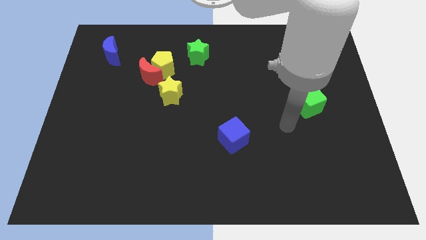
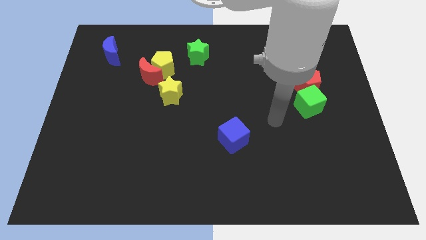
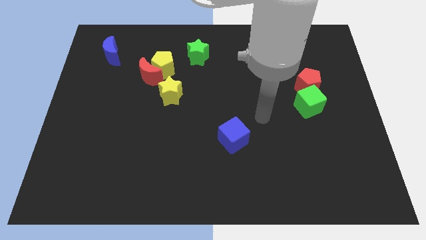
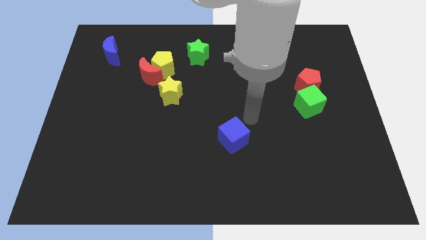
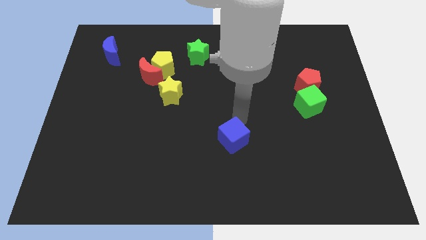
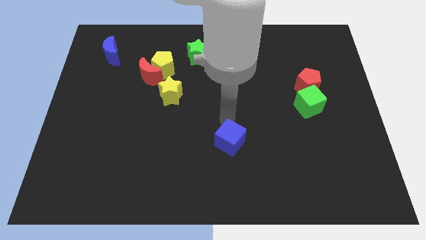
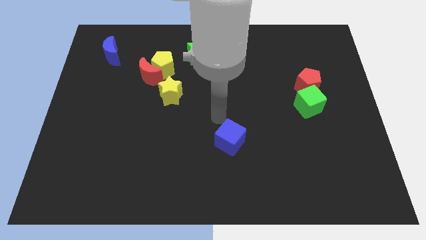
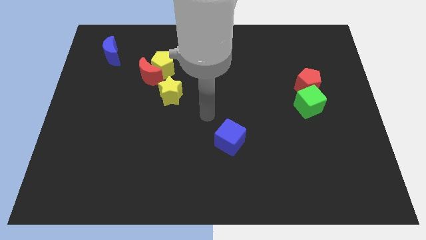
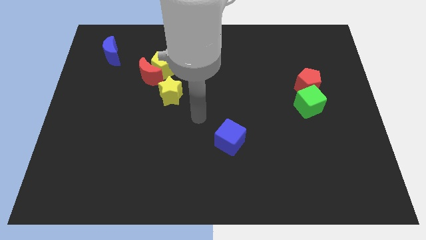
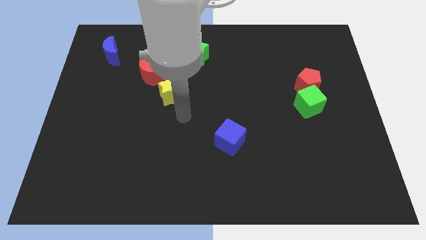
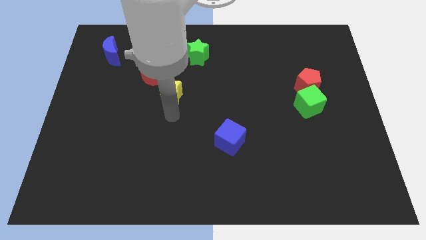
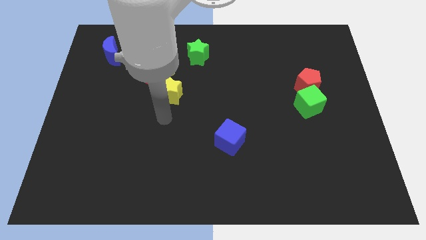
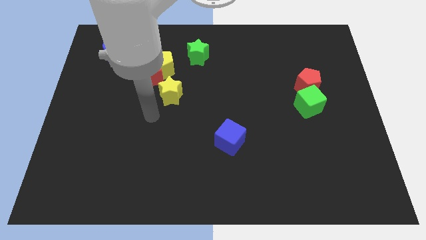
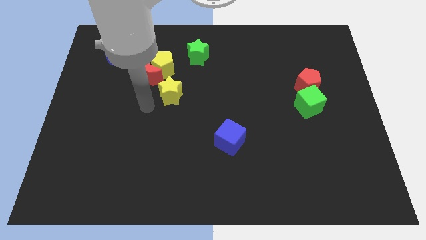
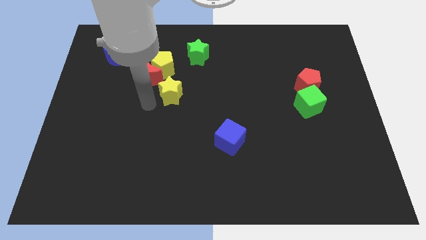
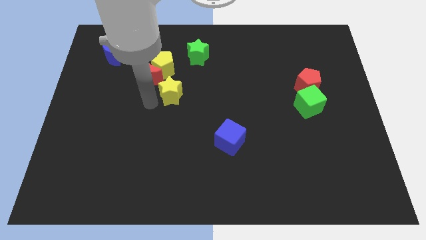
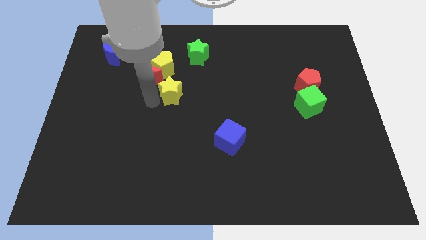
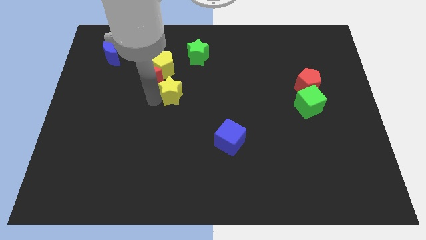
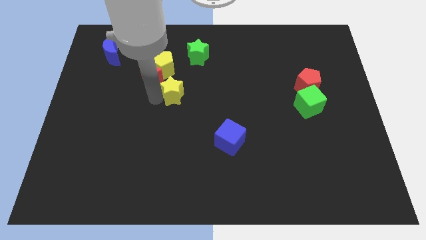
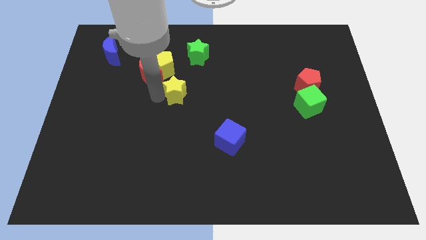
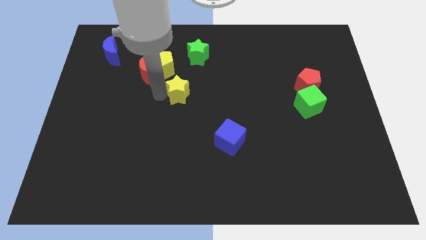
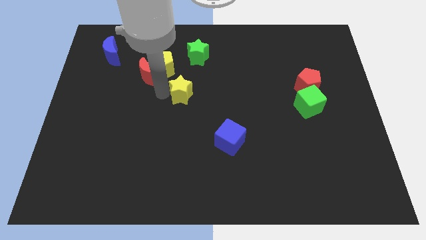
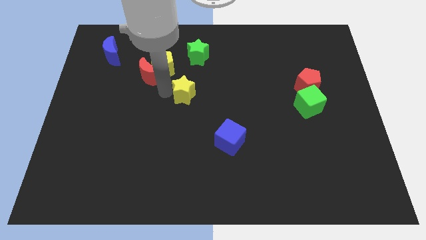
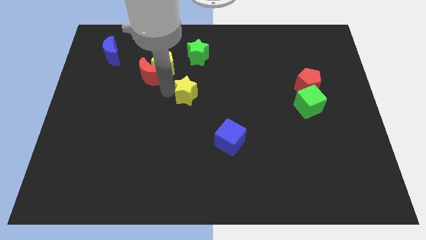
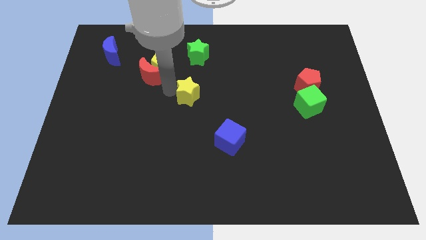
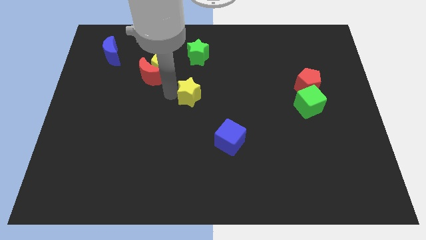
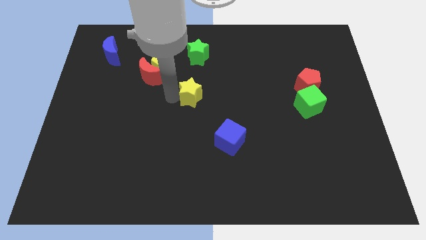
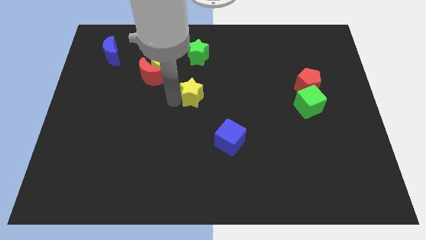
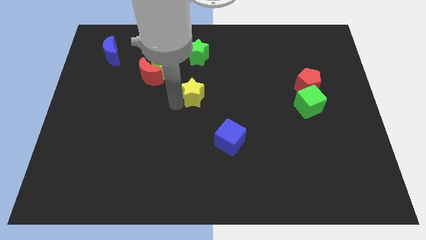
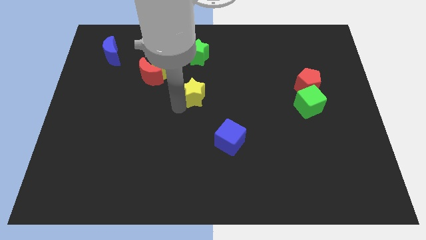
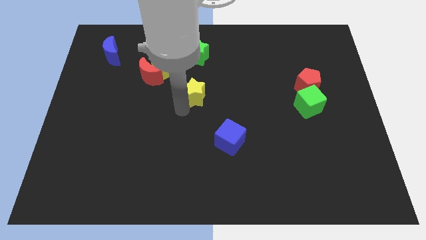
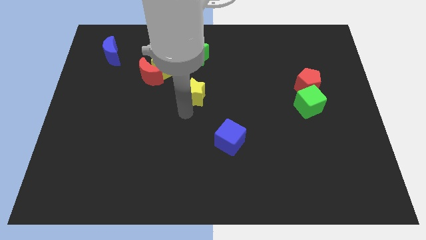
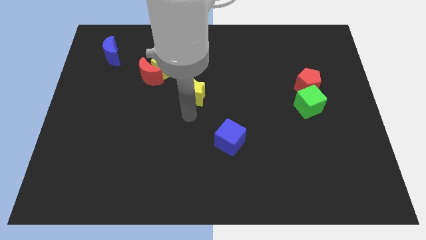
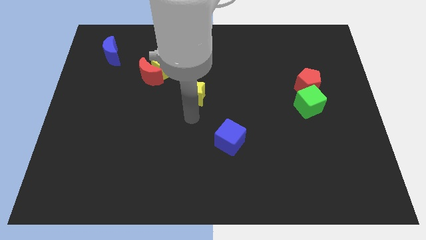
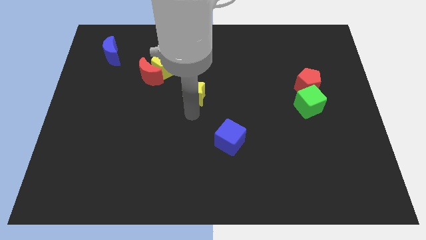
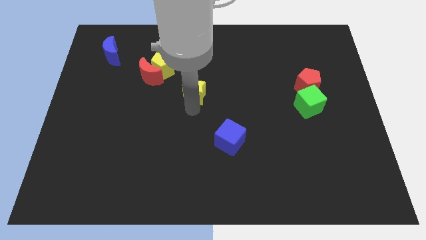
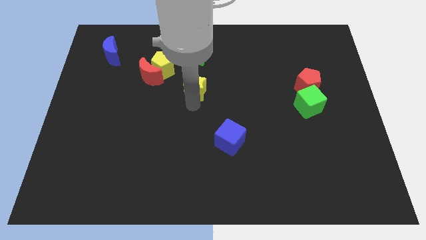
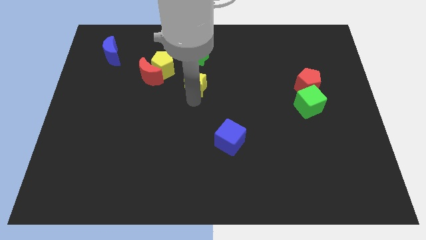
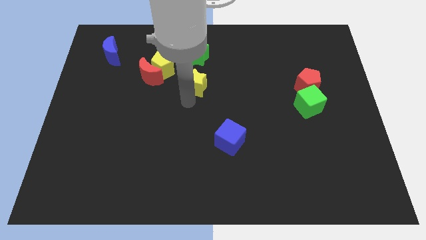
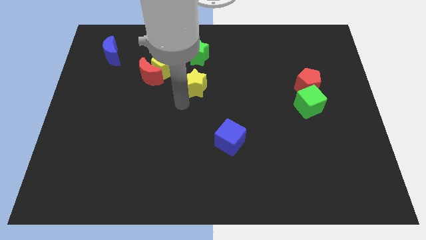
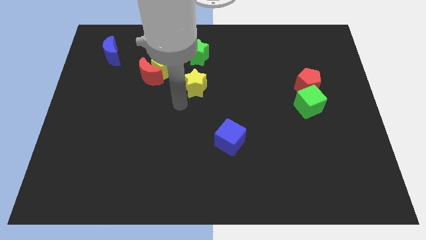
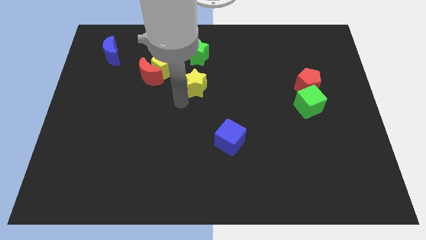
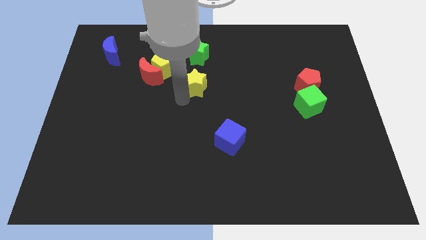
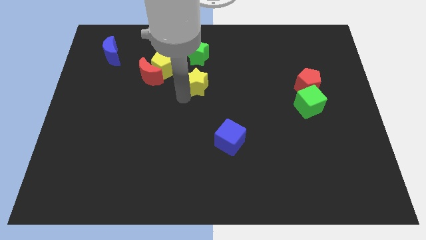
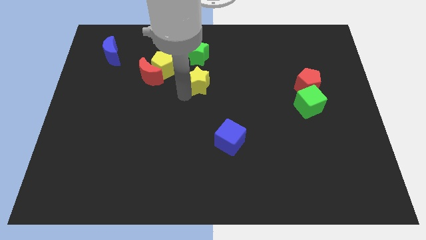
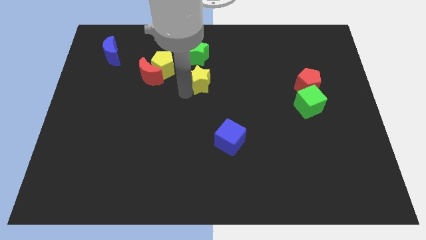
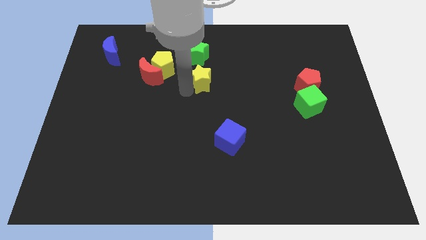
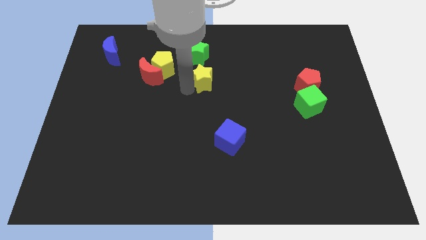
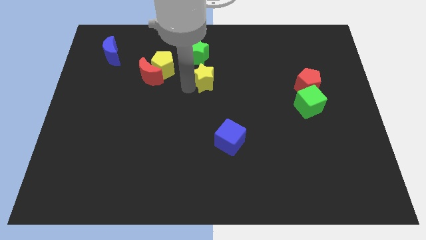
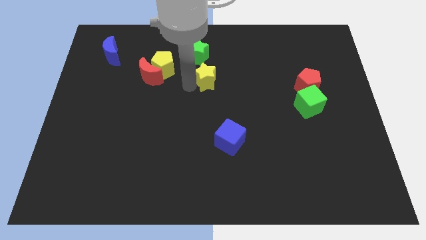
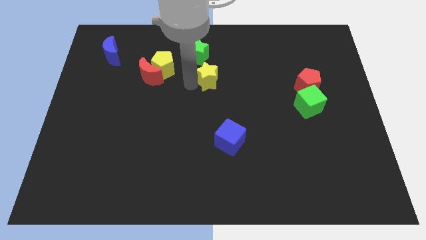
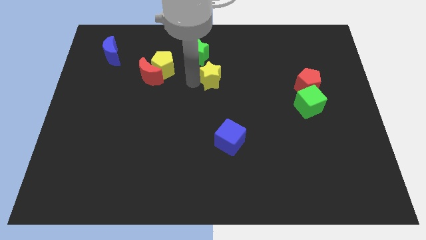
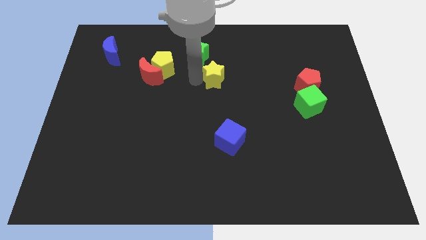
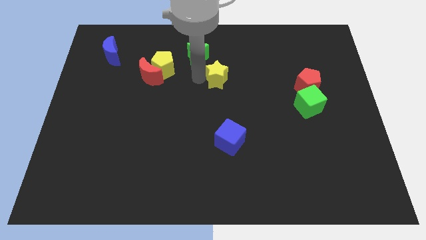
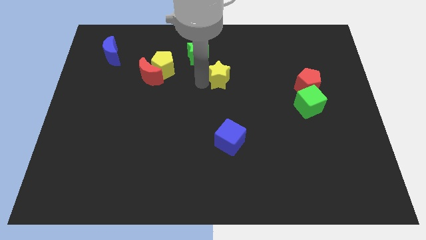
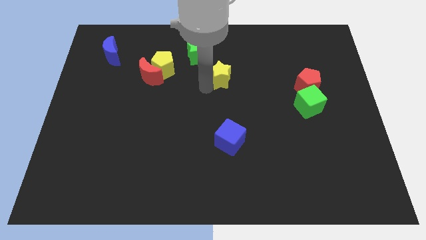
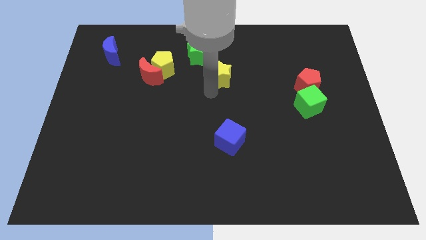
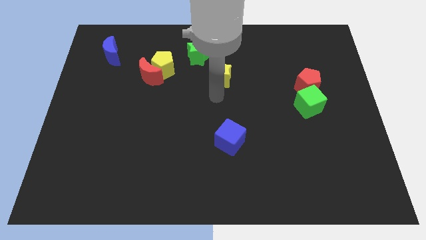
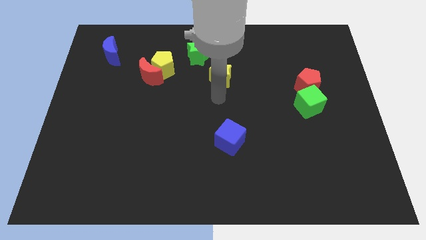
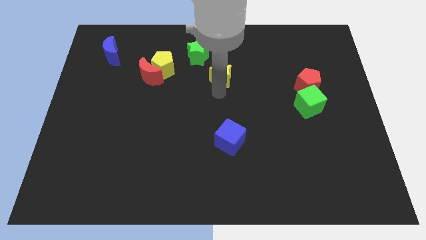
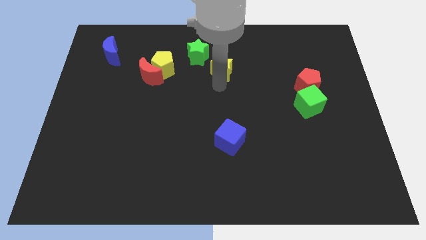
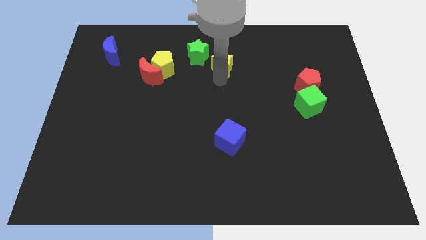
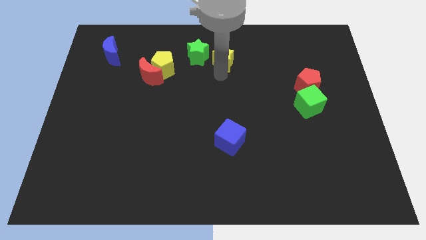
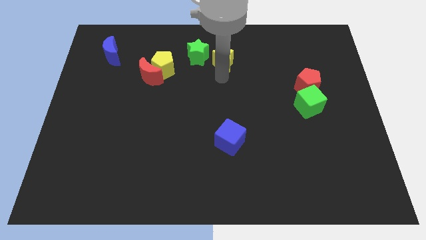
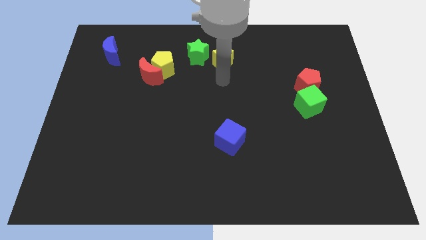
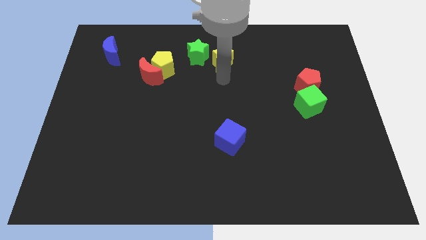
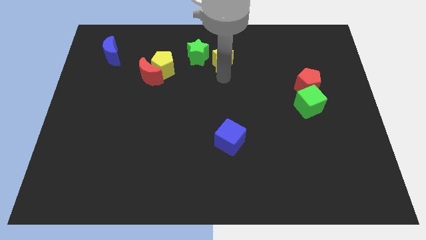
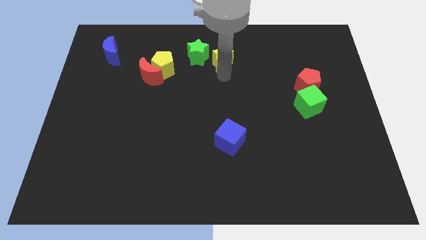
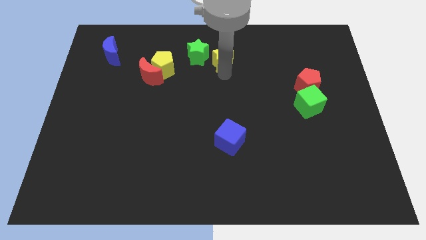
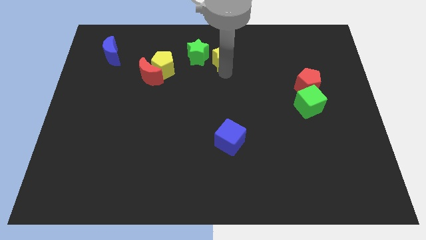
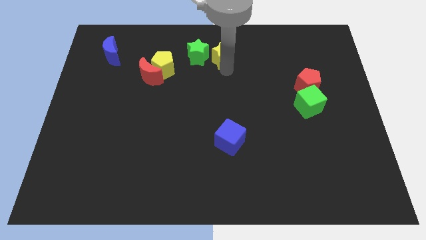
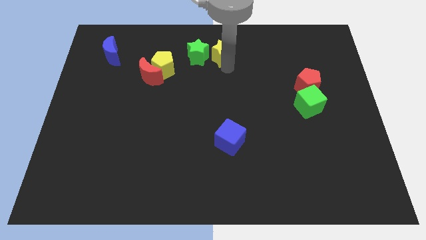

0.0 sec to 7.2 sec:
slide the yellow star to the top
